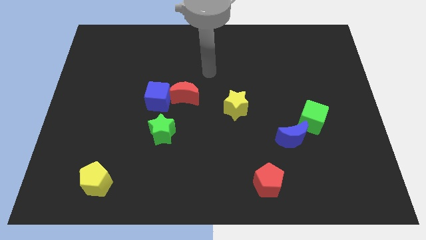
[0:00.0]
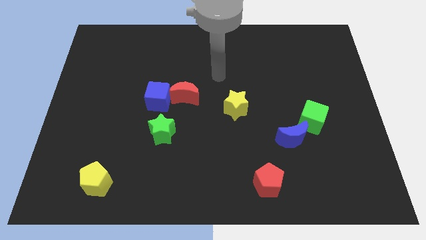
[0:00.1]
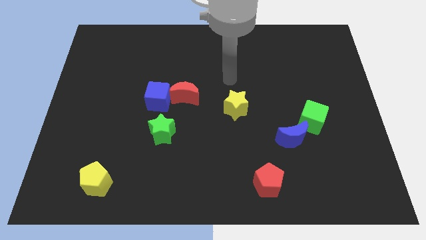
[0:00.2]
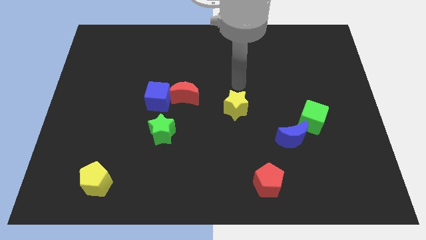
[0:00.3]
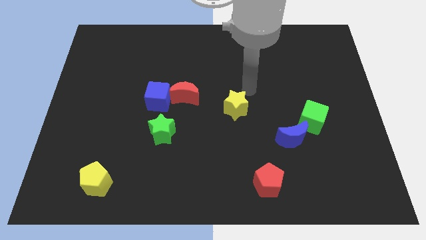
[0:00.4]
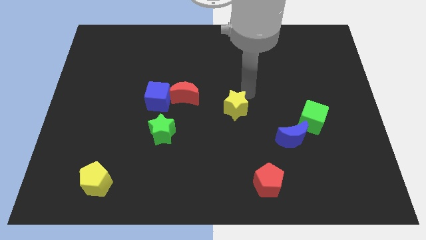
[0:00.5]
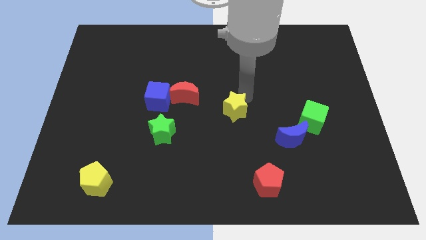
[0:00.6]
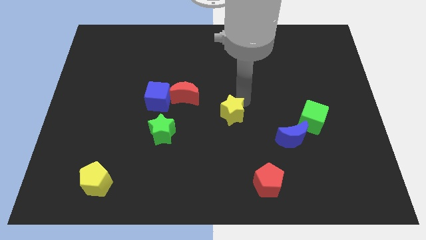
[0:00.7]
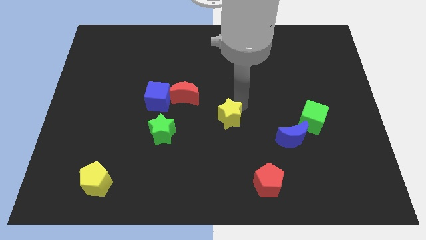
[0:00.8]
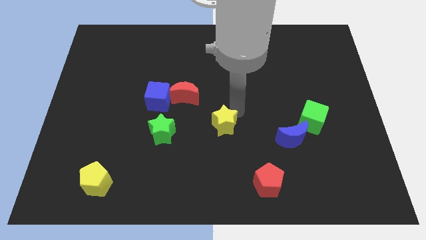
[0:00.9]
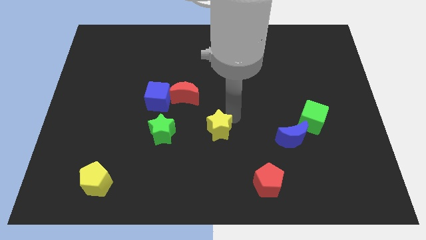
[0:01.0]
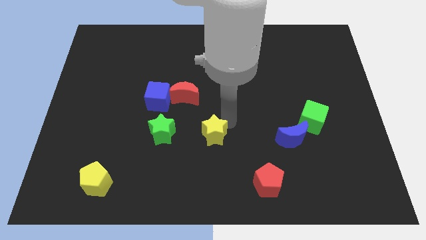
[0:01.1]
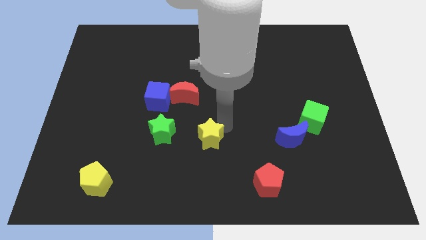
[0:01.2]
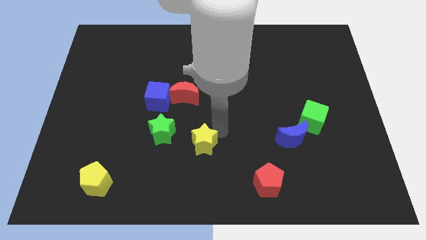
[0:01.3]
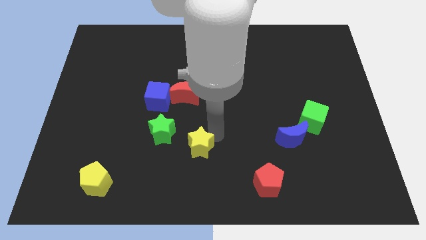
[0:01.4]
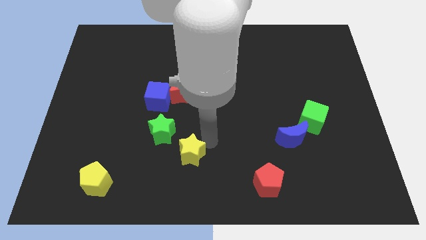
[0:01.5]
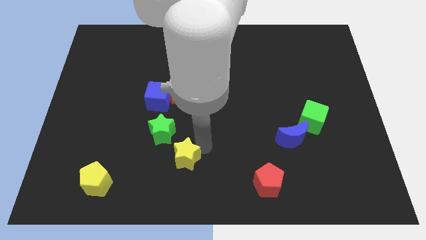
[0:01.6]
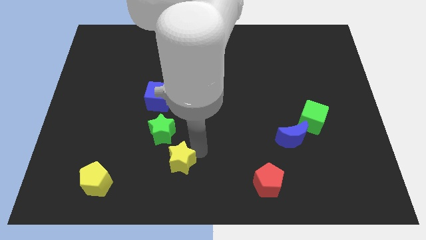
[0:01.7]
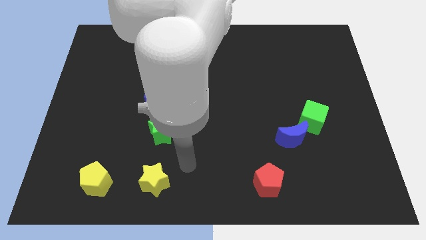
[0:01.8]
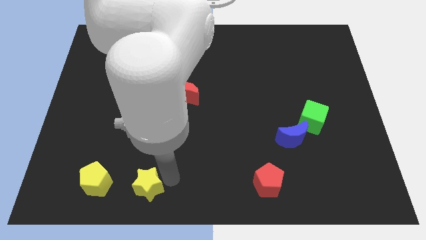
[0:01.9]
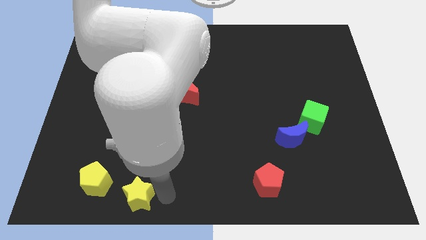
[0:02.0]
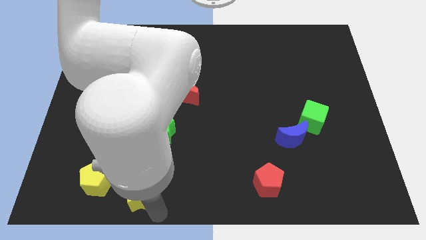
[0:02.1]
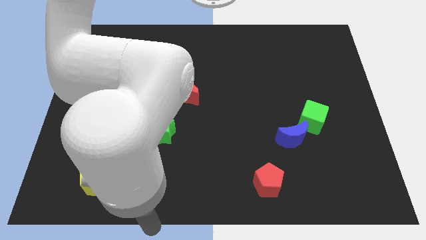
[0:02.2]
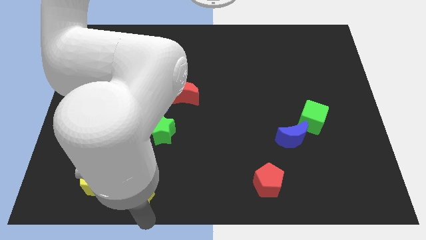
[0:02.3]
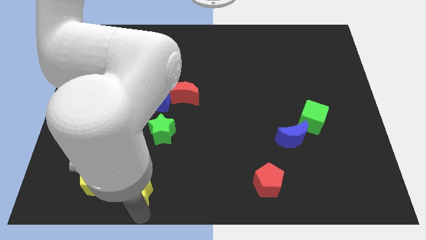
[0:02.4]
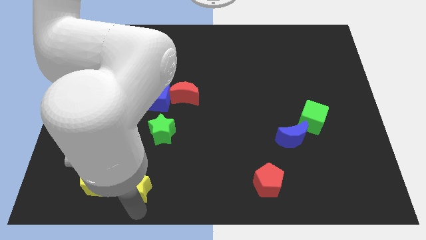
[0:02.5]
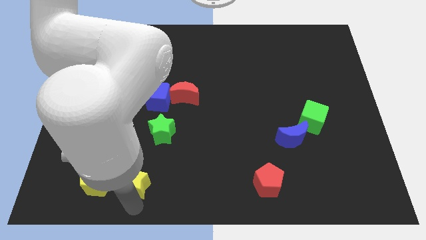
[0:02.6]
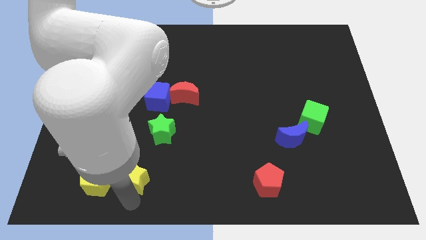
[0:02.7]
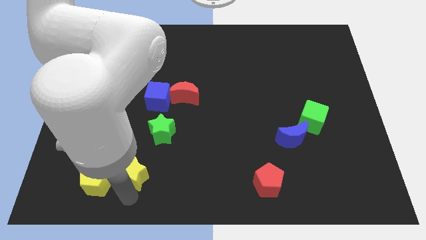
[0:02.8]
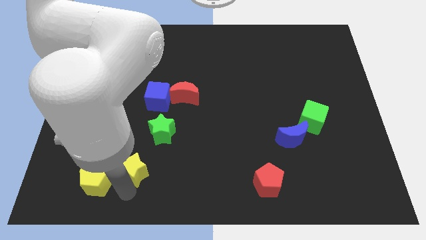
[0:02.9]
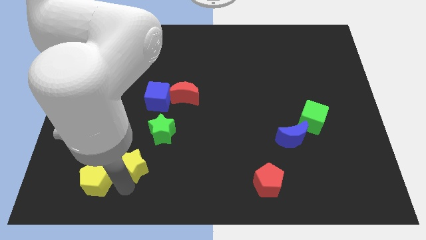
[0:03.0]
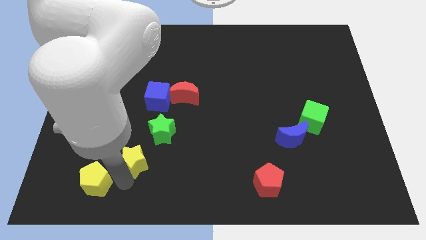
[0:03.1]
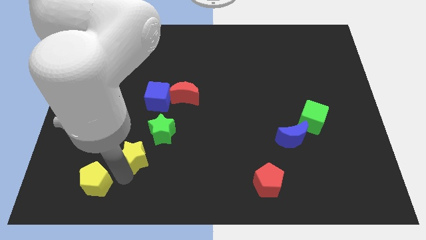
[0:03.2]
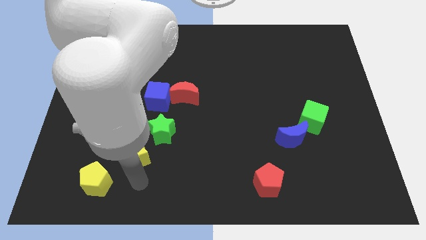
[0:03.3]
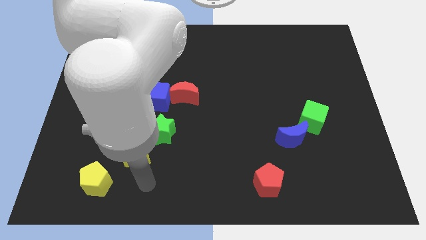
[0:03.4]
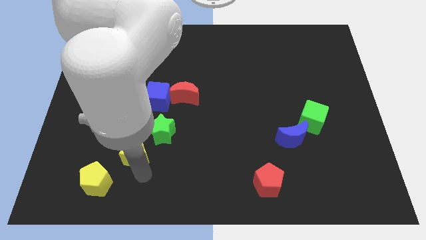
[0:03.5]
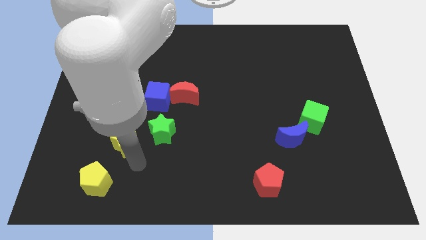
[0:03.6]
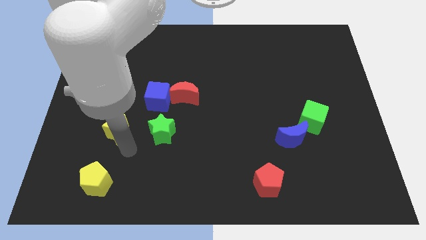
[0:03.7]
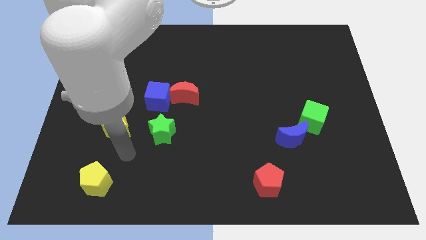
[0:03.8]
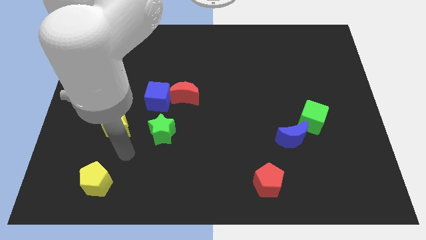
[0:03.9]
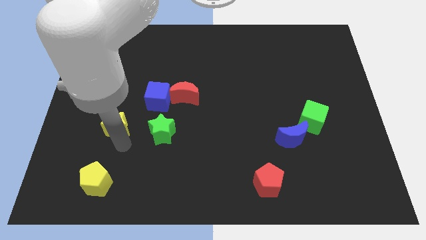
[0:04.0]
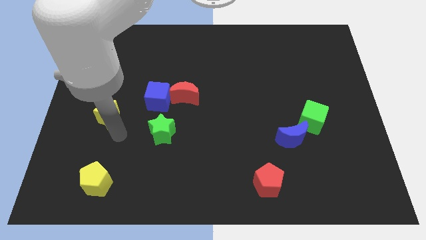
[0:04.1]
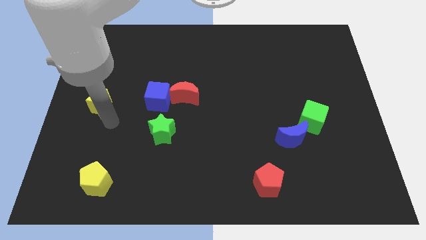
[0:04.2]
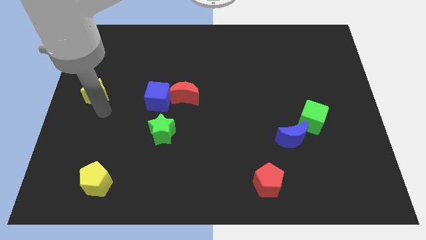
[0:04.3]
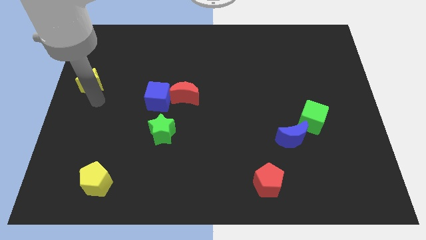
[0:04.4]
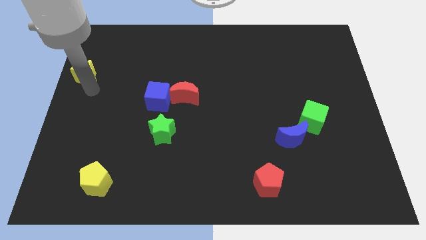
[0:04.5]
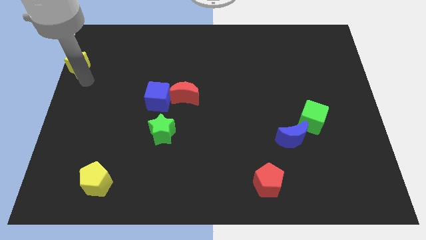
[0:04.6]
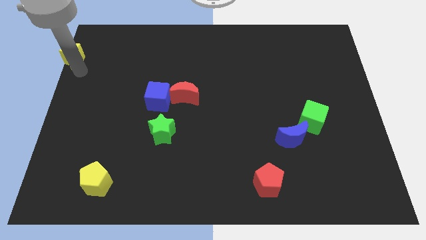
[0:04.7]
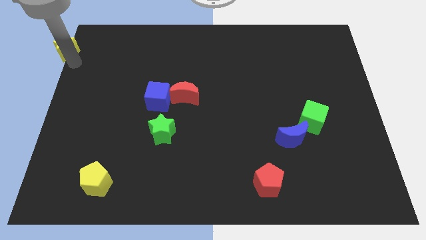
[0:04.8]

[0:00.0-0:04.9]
put the yellow star to the top left of the board

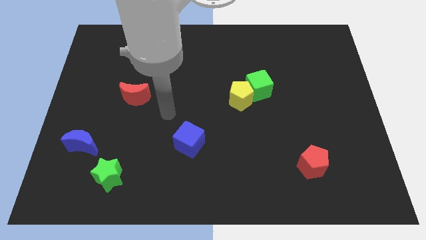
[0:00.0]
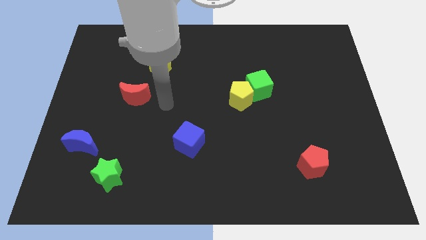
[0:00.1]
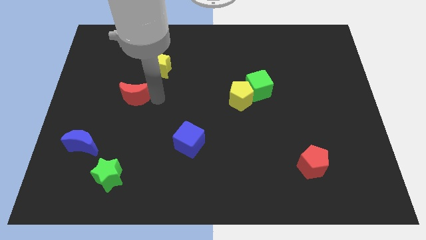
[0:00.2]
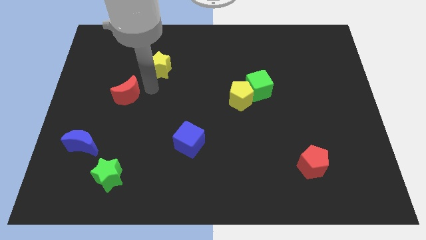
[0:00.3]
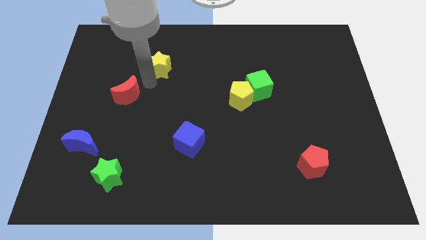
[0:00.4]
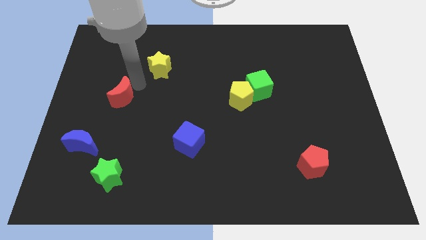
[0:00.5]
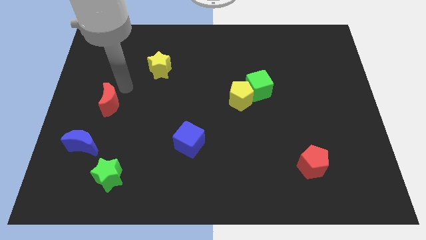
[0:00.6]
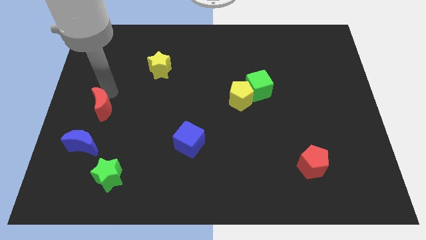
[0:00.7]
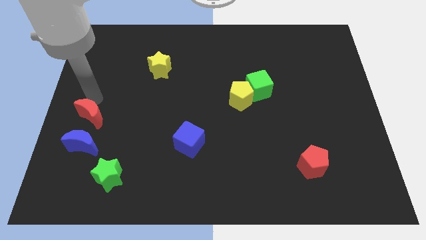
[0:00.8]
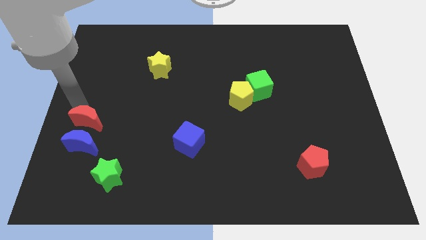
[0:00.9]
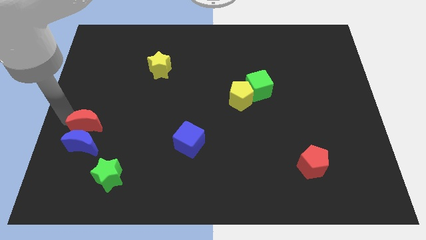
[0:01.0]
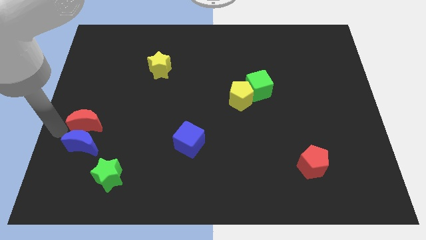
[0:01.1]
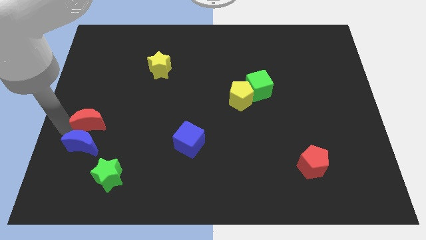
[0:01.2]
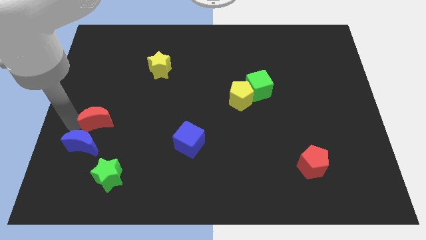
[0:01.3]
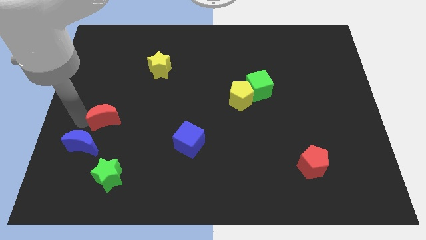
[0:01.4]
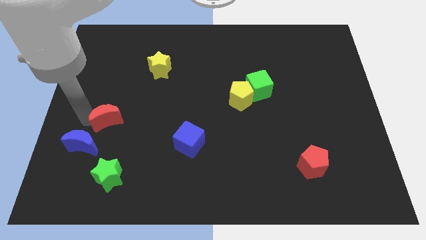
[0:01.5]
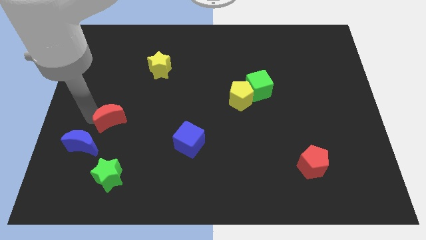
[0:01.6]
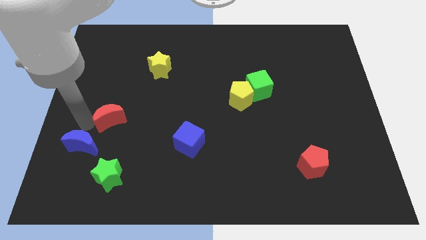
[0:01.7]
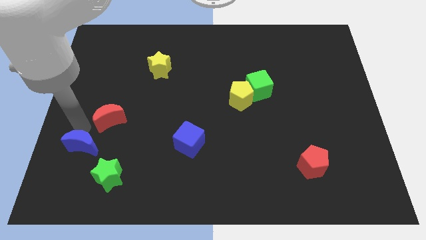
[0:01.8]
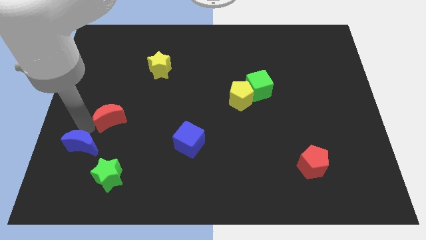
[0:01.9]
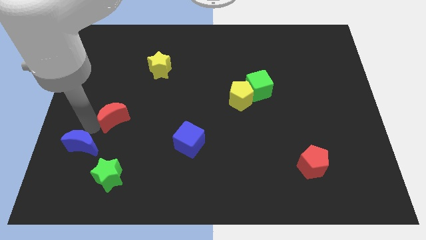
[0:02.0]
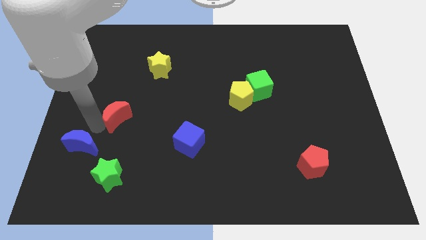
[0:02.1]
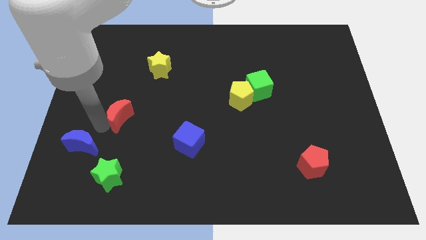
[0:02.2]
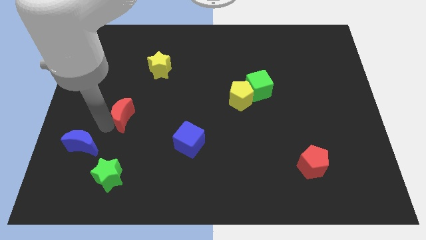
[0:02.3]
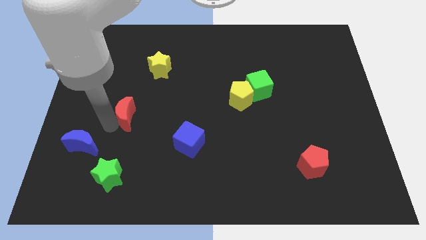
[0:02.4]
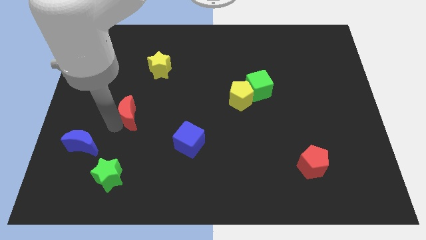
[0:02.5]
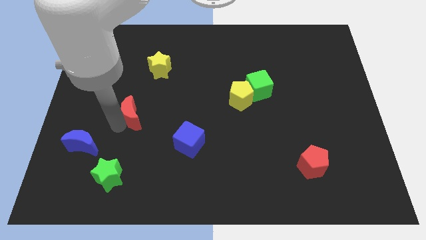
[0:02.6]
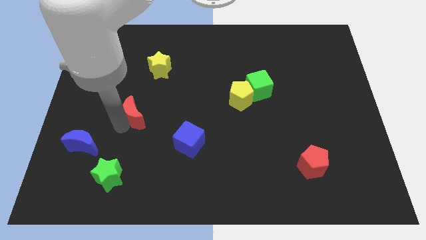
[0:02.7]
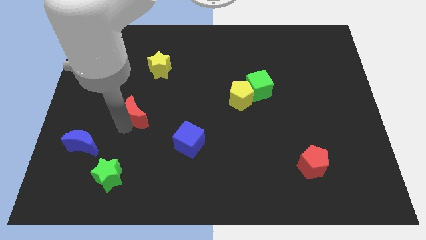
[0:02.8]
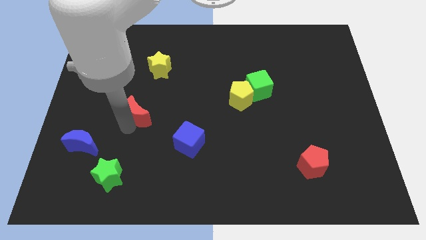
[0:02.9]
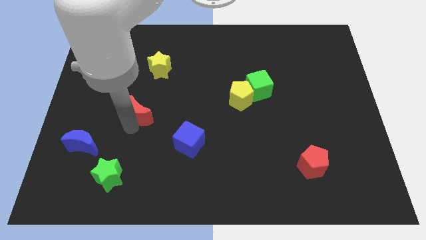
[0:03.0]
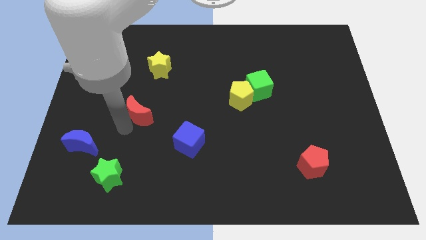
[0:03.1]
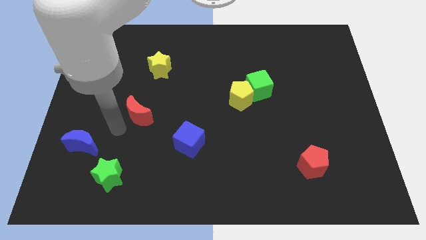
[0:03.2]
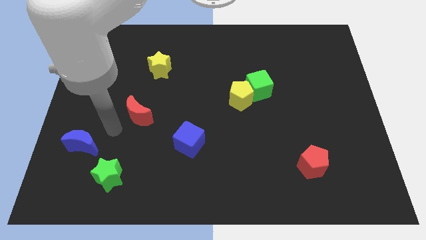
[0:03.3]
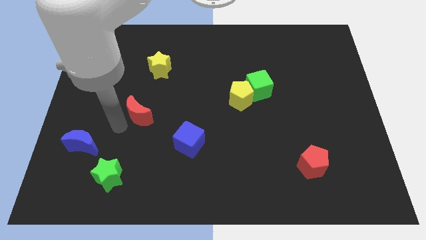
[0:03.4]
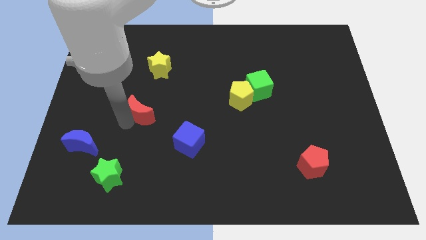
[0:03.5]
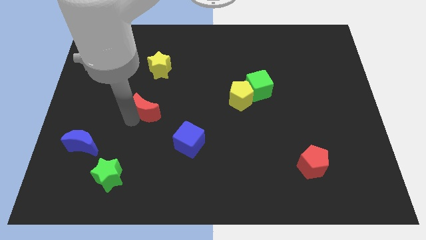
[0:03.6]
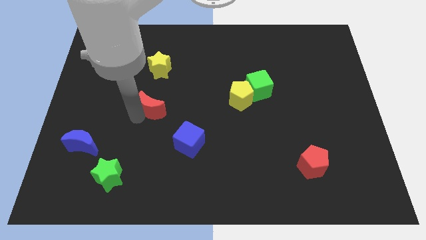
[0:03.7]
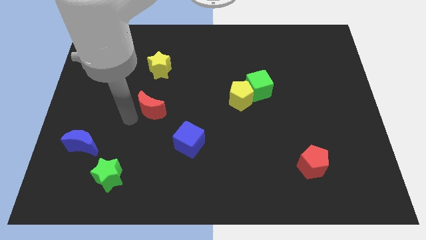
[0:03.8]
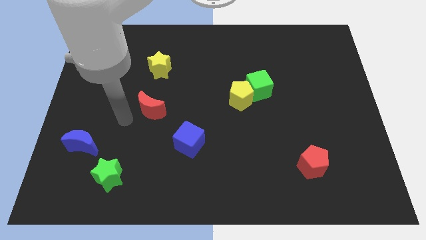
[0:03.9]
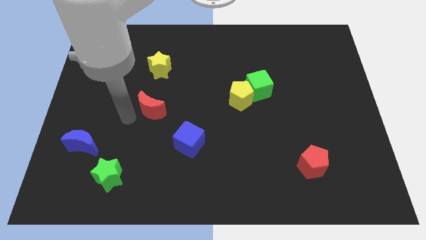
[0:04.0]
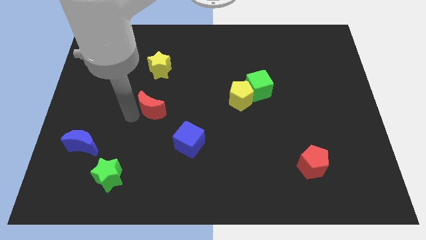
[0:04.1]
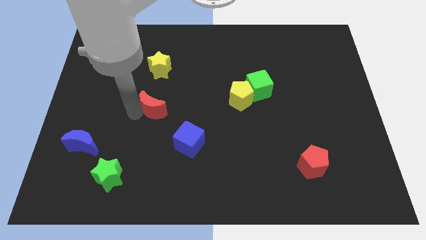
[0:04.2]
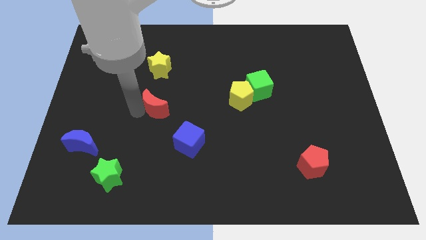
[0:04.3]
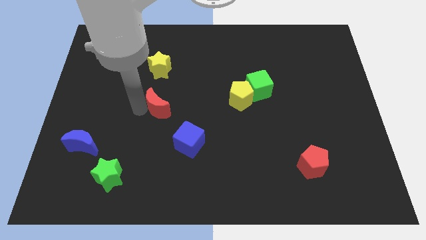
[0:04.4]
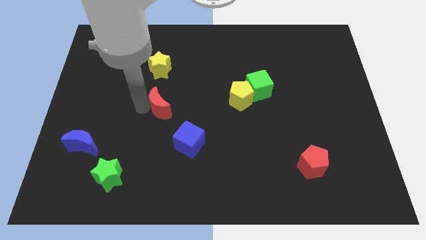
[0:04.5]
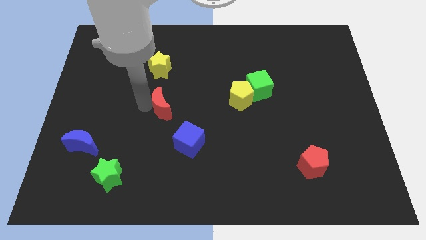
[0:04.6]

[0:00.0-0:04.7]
slide the red moon to the center of the board
